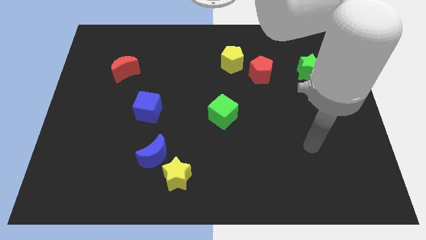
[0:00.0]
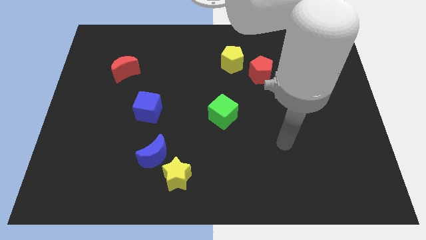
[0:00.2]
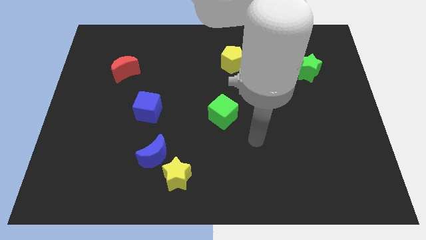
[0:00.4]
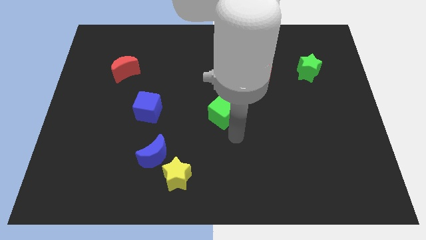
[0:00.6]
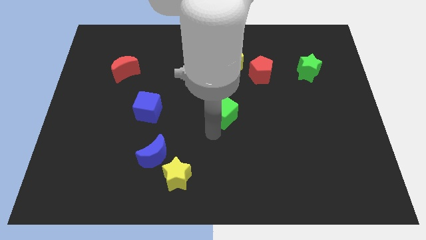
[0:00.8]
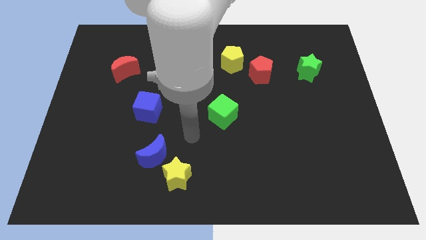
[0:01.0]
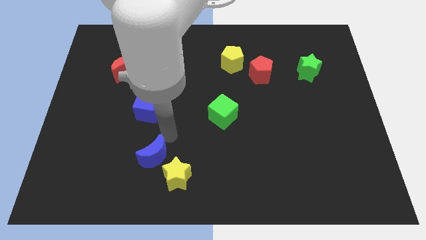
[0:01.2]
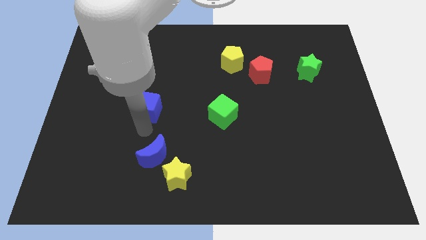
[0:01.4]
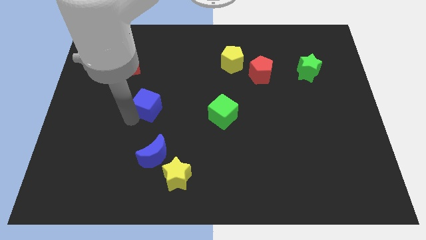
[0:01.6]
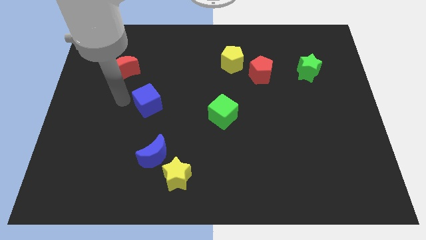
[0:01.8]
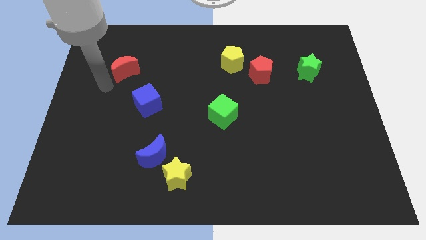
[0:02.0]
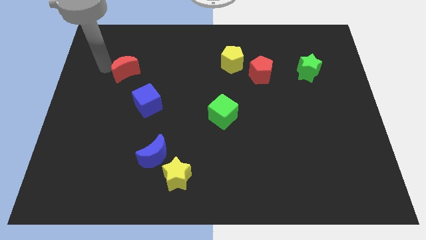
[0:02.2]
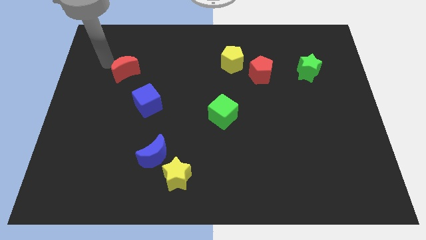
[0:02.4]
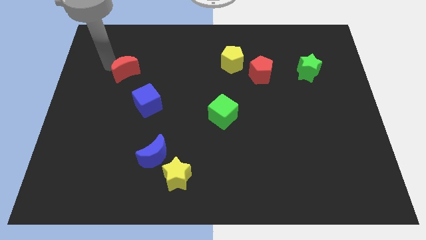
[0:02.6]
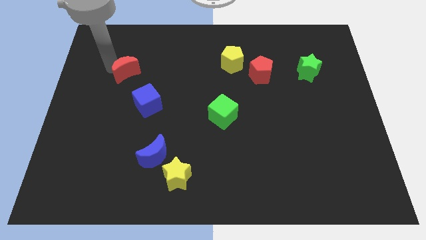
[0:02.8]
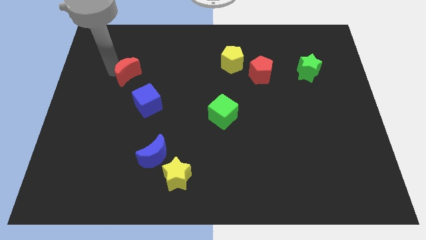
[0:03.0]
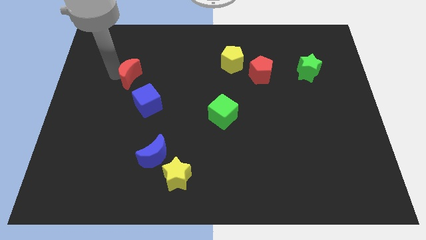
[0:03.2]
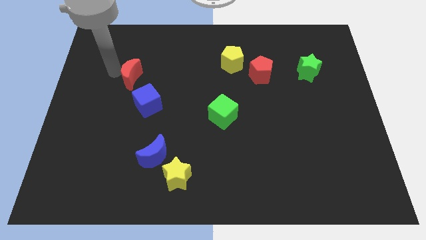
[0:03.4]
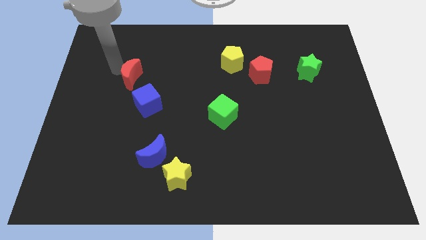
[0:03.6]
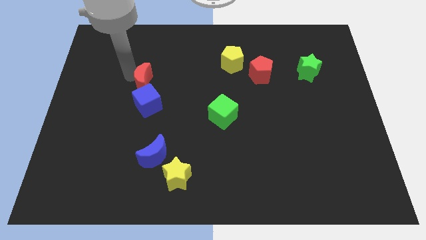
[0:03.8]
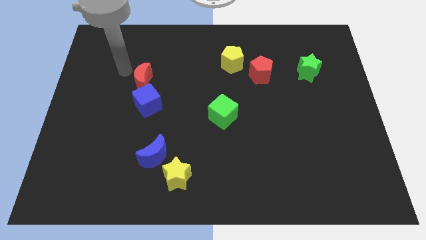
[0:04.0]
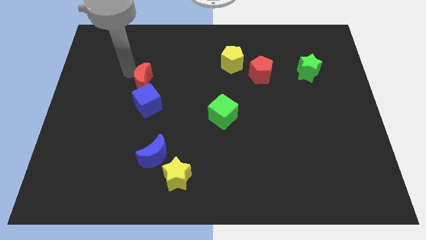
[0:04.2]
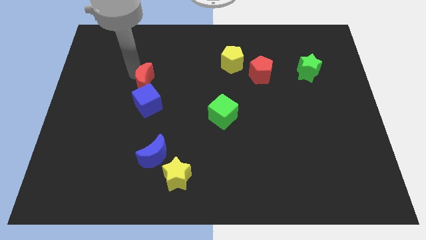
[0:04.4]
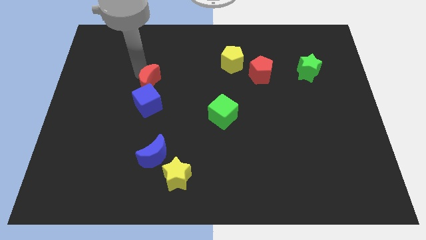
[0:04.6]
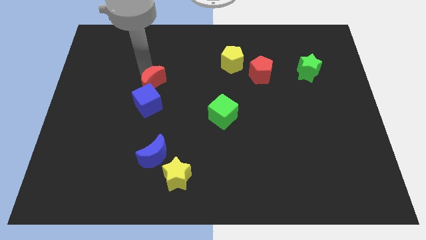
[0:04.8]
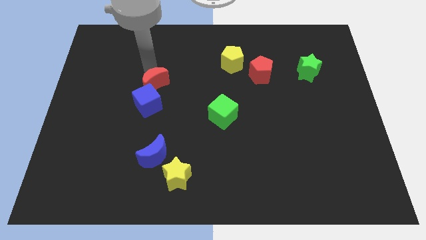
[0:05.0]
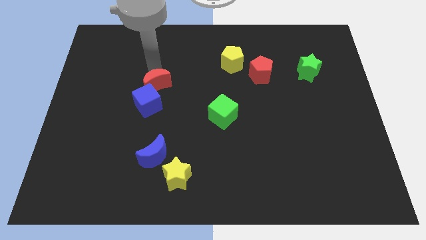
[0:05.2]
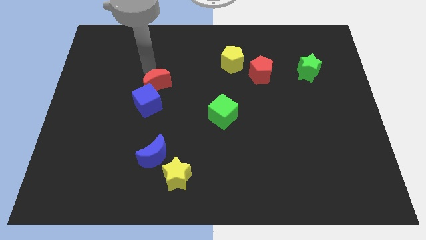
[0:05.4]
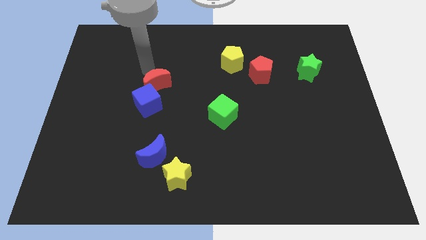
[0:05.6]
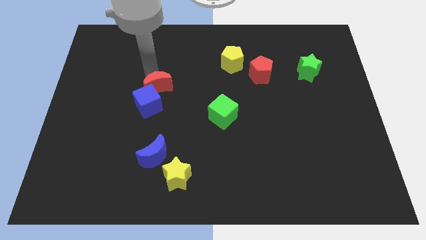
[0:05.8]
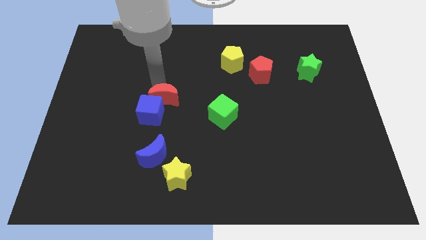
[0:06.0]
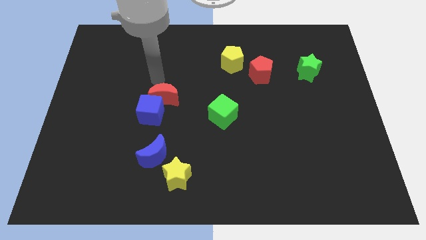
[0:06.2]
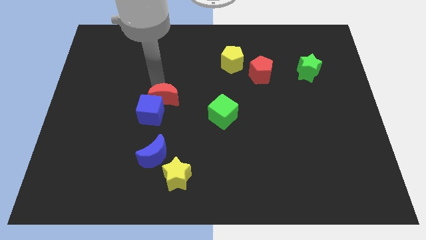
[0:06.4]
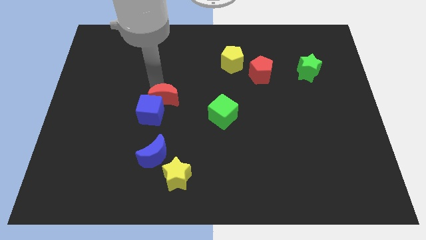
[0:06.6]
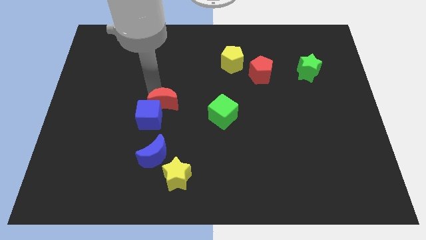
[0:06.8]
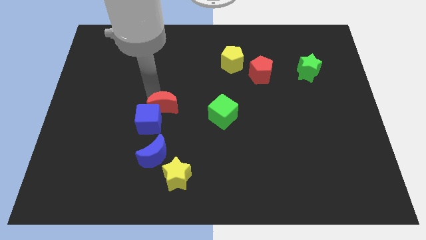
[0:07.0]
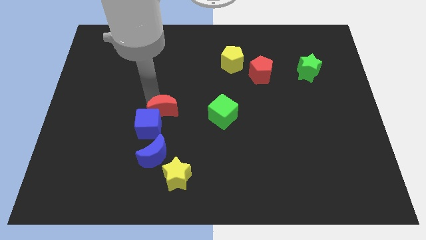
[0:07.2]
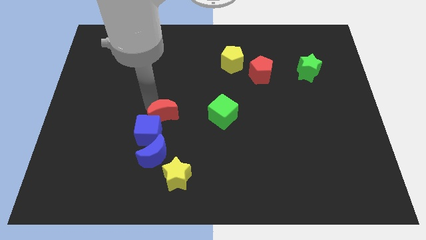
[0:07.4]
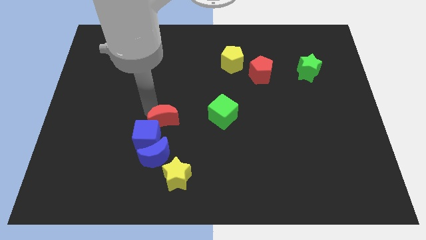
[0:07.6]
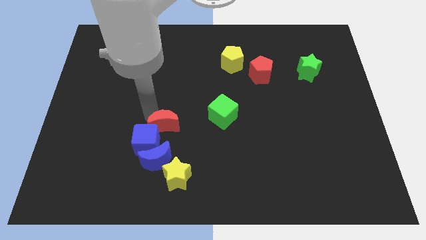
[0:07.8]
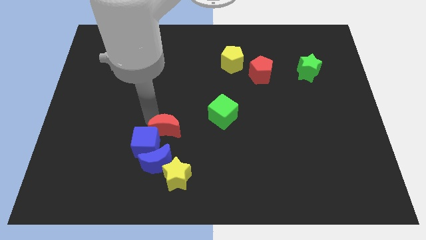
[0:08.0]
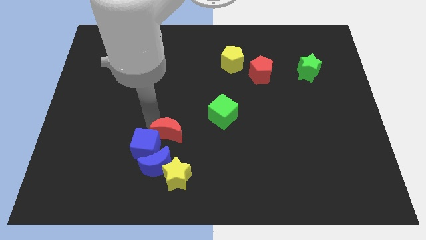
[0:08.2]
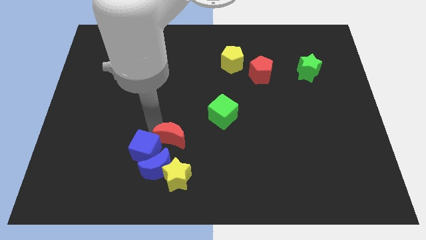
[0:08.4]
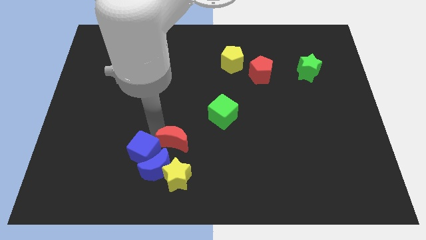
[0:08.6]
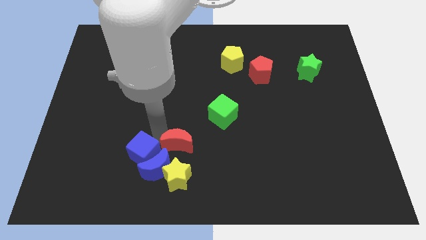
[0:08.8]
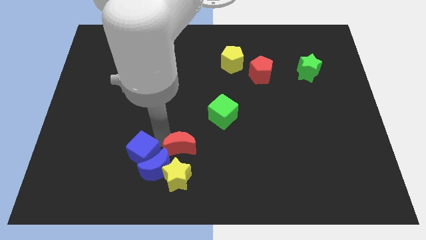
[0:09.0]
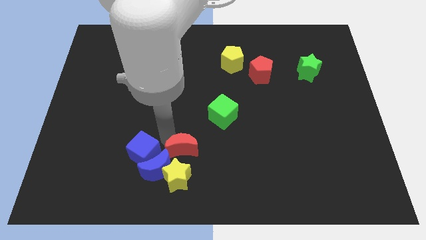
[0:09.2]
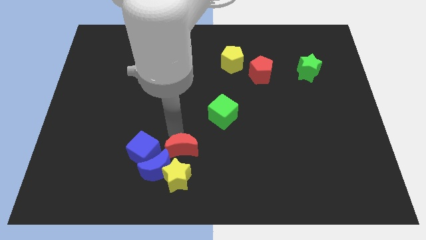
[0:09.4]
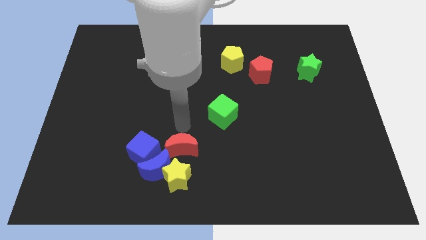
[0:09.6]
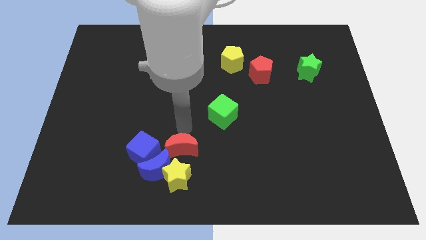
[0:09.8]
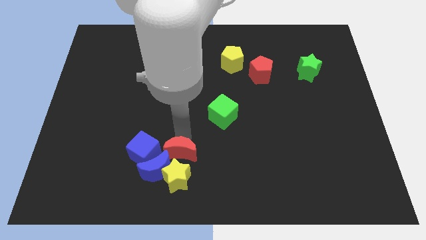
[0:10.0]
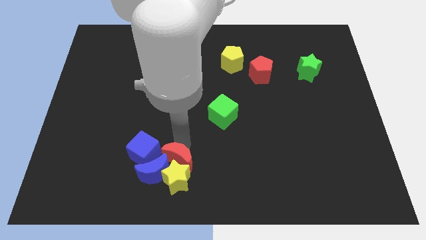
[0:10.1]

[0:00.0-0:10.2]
put the red moon close to the yellow star

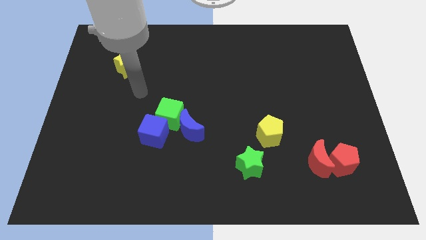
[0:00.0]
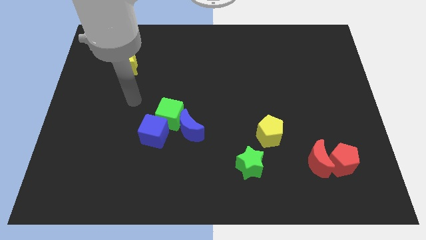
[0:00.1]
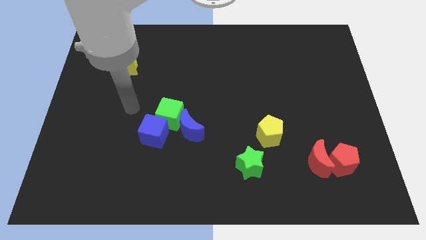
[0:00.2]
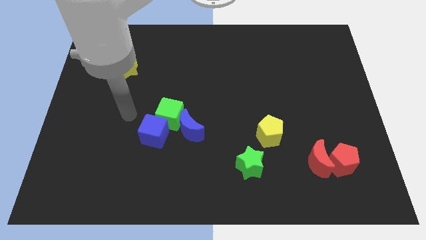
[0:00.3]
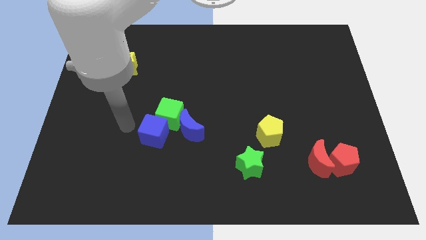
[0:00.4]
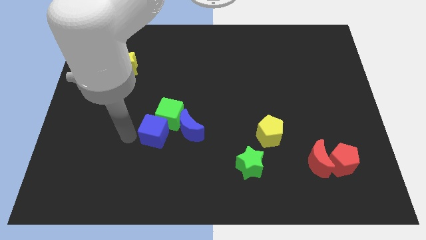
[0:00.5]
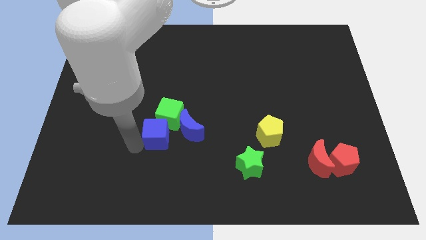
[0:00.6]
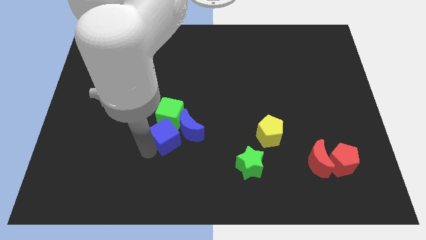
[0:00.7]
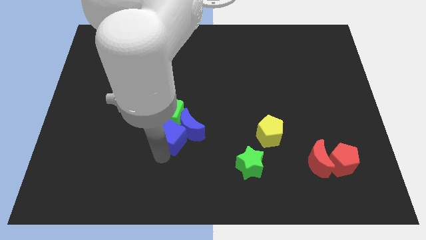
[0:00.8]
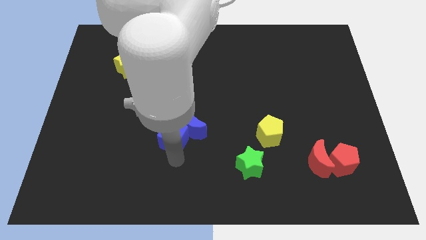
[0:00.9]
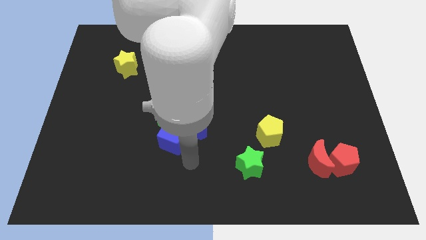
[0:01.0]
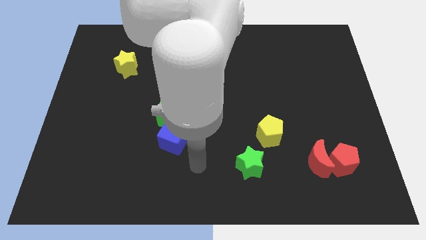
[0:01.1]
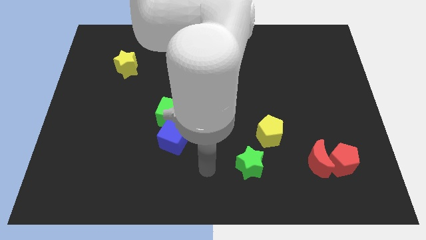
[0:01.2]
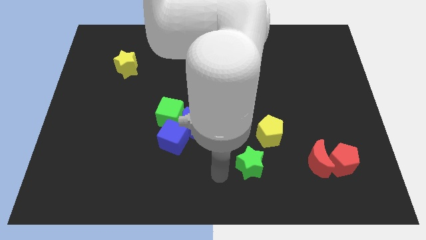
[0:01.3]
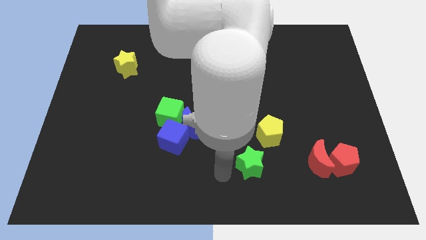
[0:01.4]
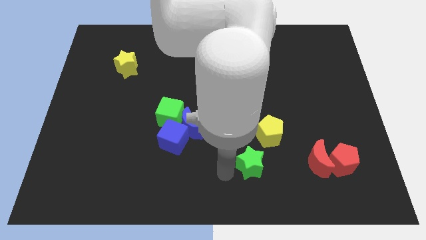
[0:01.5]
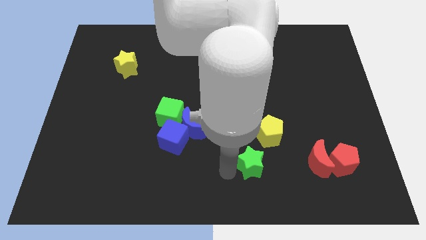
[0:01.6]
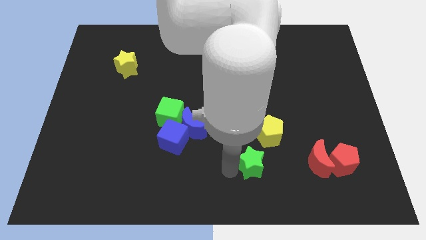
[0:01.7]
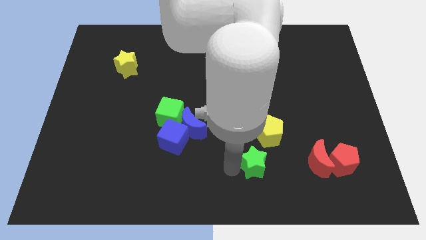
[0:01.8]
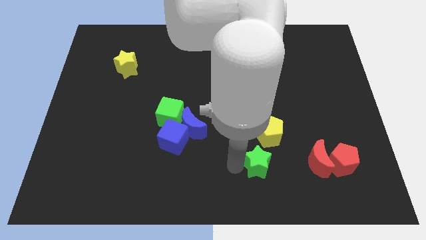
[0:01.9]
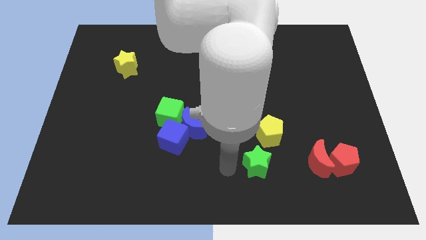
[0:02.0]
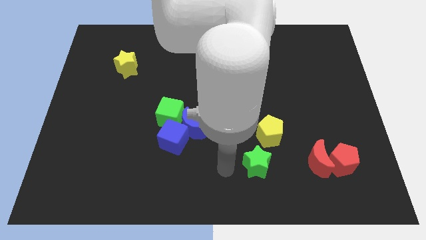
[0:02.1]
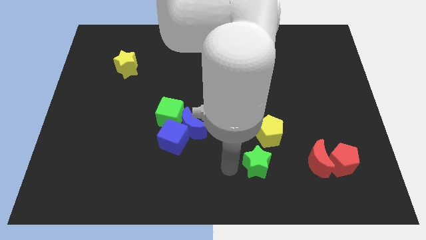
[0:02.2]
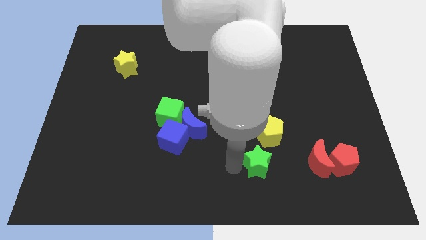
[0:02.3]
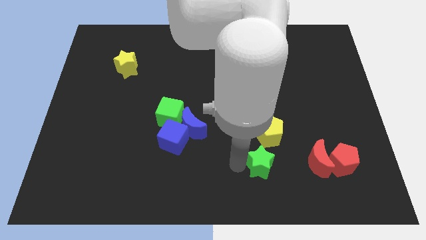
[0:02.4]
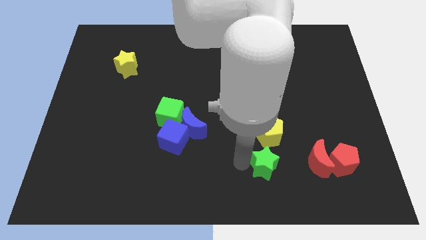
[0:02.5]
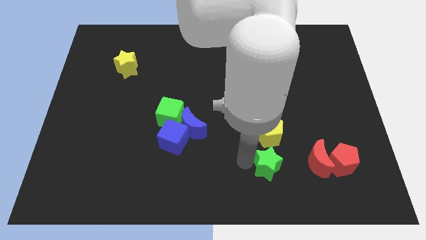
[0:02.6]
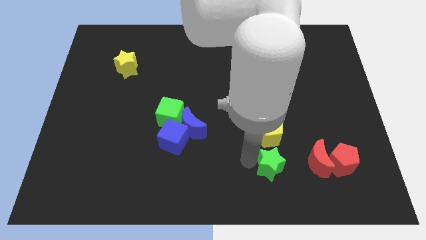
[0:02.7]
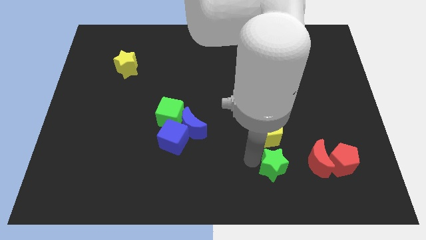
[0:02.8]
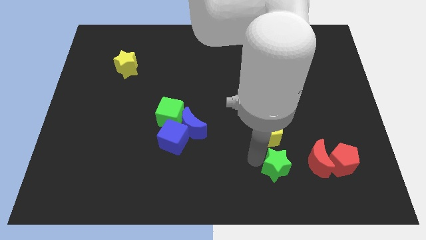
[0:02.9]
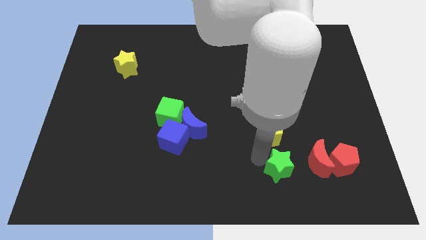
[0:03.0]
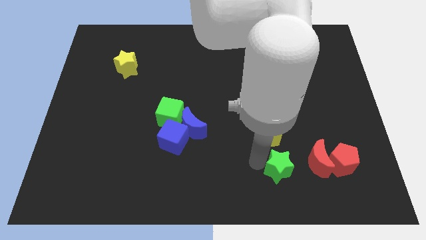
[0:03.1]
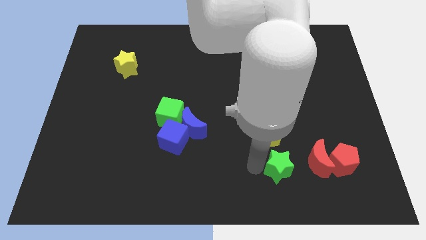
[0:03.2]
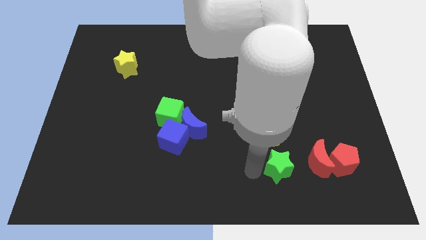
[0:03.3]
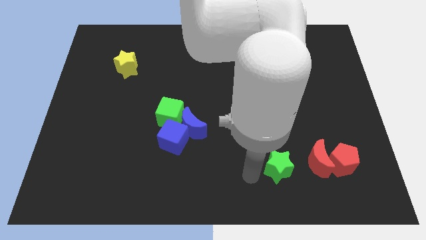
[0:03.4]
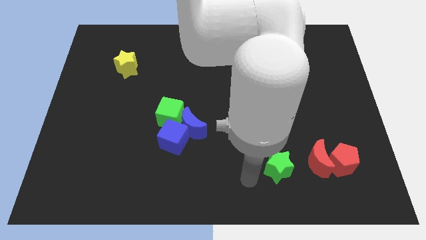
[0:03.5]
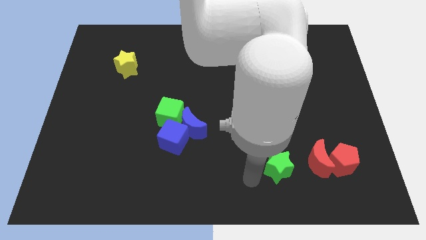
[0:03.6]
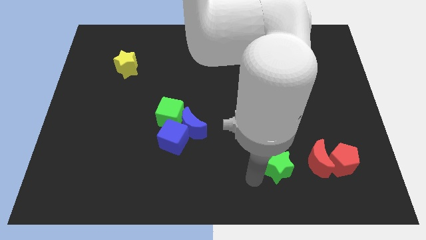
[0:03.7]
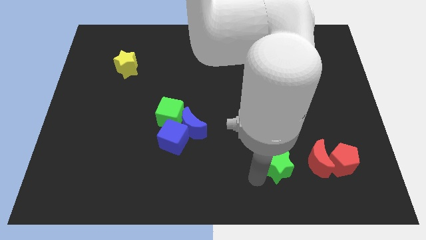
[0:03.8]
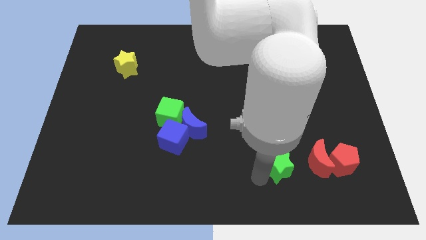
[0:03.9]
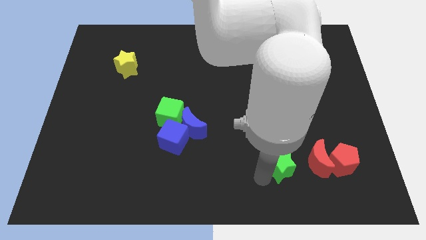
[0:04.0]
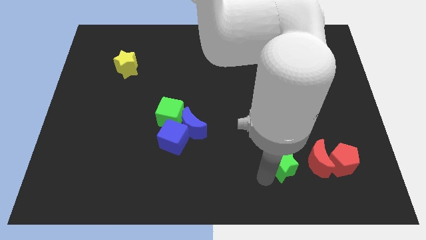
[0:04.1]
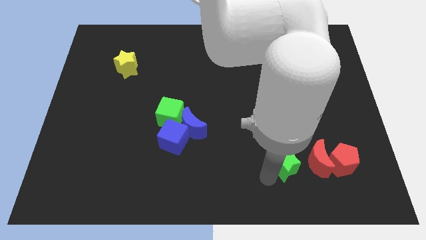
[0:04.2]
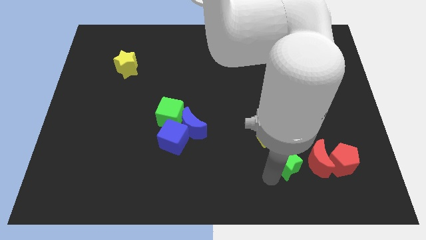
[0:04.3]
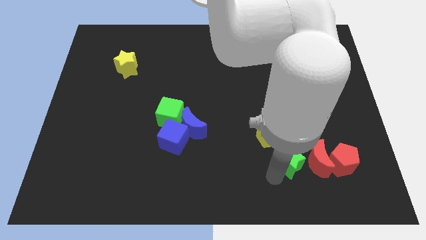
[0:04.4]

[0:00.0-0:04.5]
put the green star to the red moon
